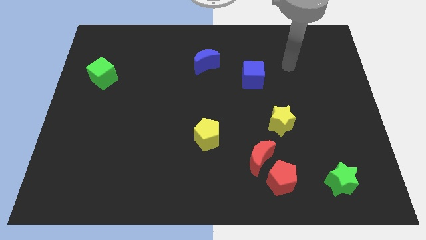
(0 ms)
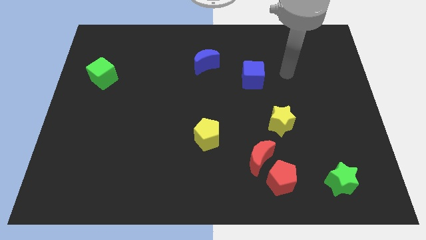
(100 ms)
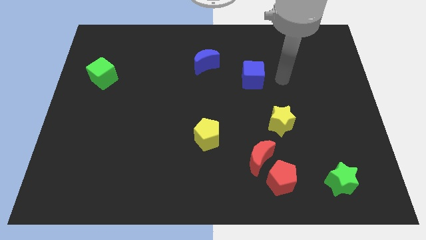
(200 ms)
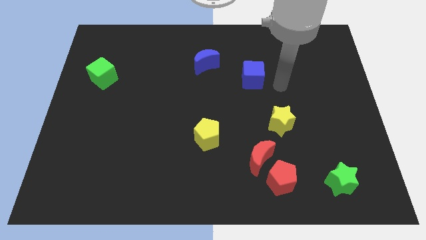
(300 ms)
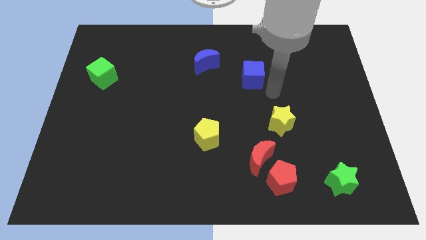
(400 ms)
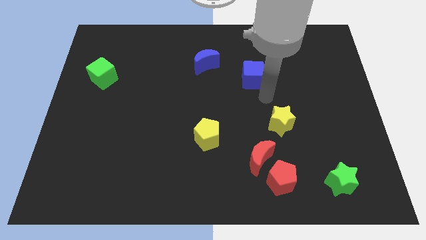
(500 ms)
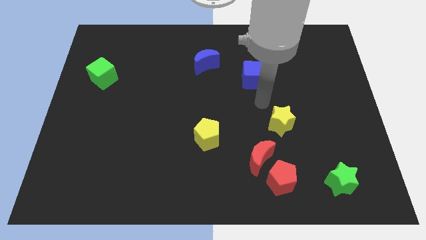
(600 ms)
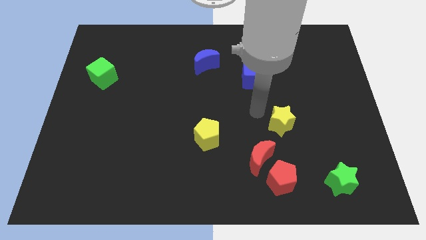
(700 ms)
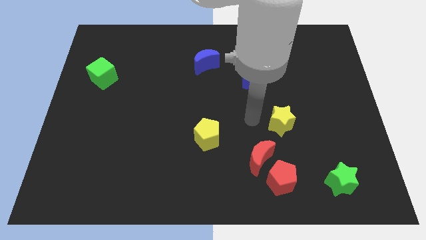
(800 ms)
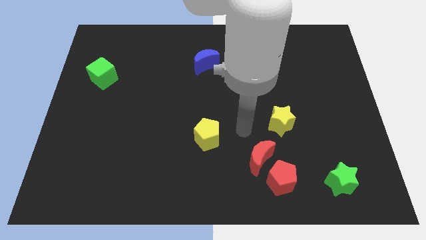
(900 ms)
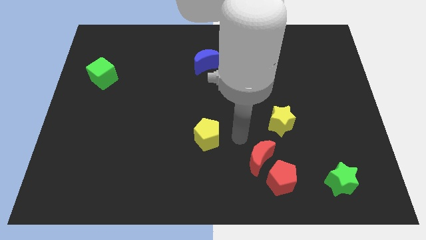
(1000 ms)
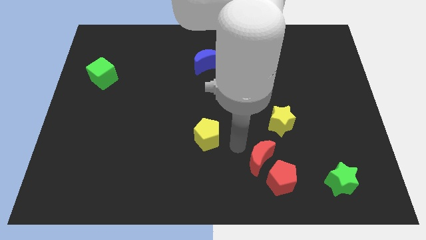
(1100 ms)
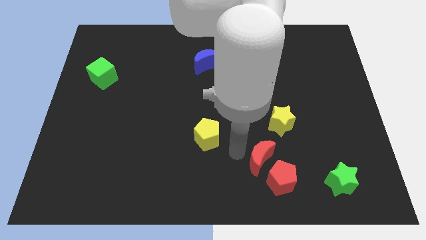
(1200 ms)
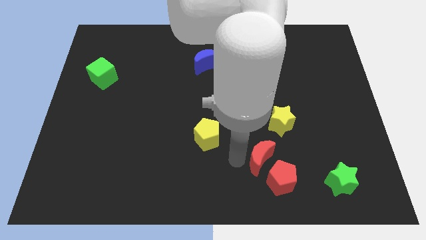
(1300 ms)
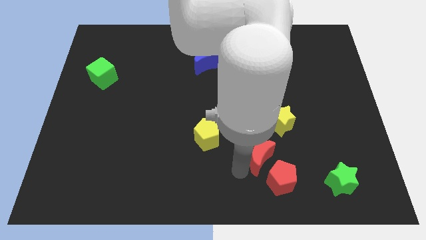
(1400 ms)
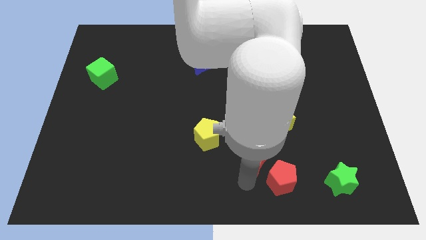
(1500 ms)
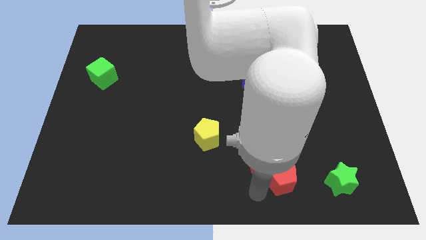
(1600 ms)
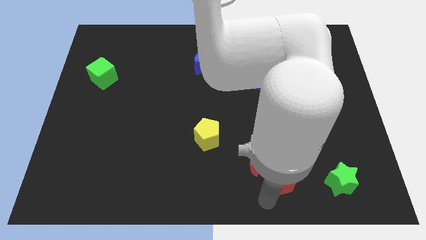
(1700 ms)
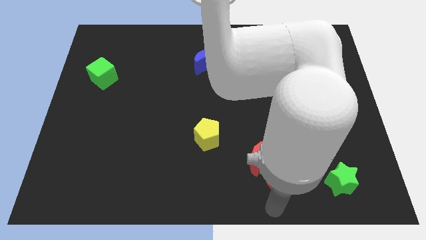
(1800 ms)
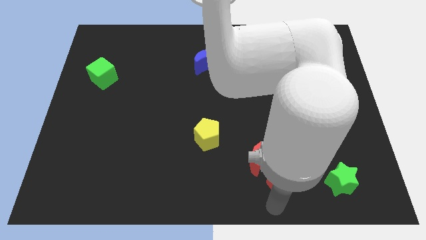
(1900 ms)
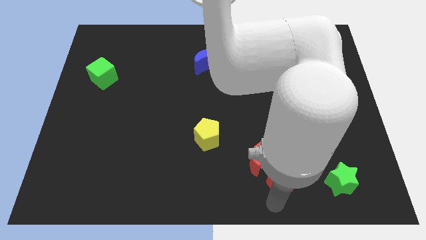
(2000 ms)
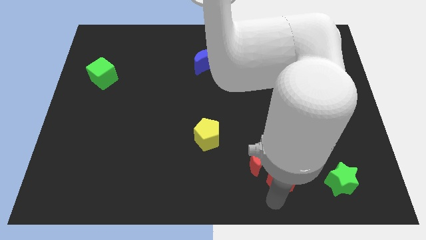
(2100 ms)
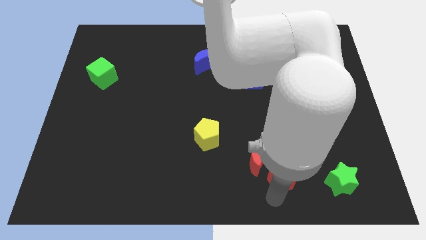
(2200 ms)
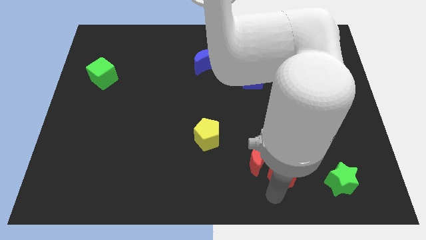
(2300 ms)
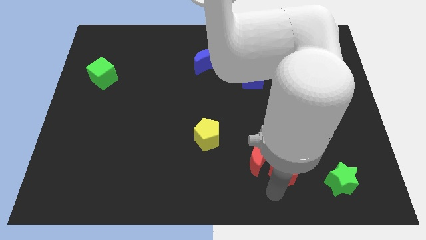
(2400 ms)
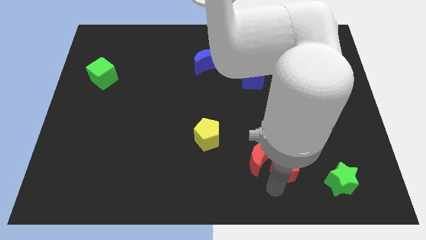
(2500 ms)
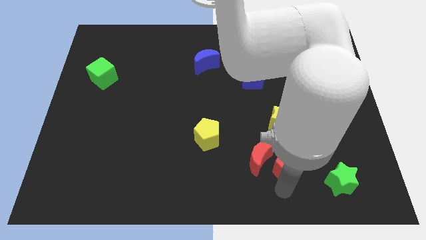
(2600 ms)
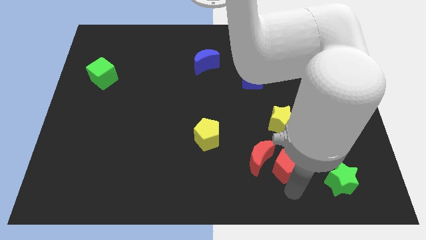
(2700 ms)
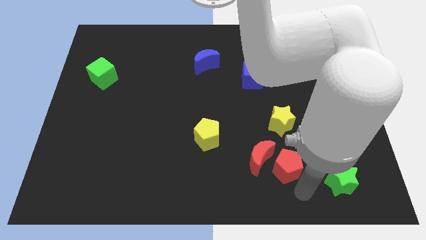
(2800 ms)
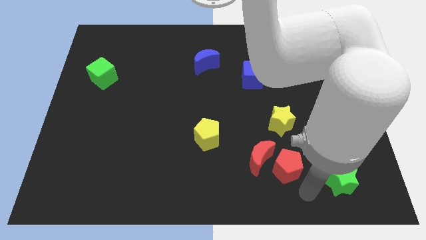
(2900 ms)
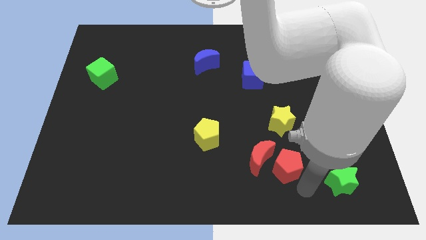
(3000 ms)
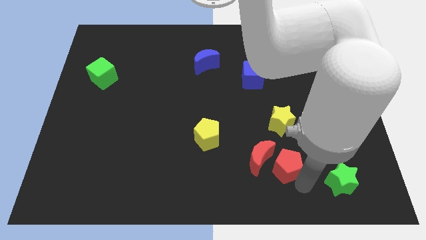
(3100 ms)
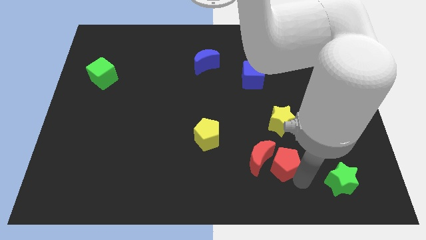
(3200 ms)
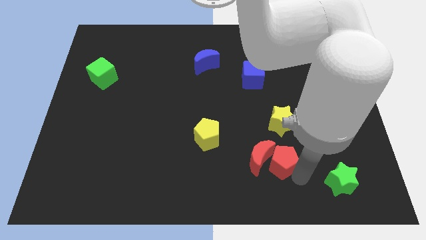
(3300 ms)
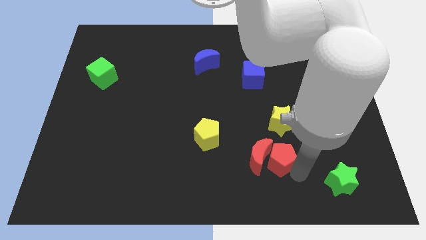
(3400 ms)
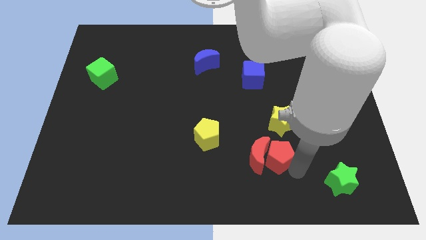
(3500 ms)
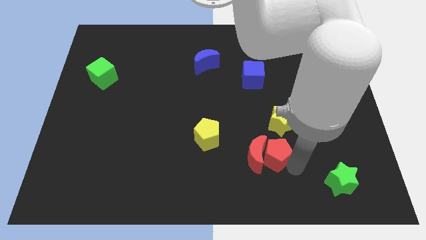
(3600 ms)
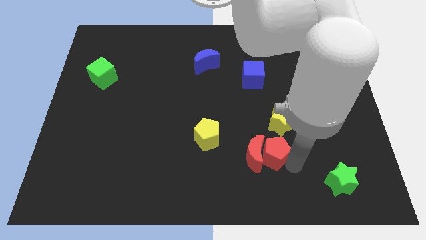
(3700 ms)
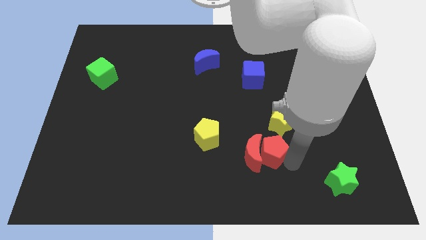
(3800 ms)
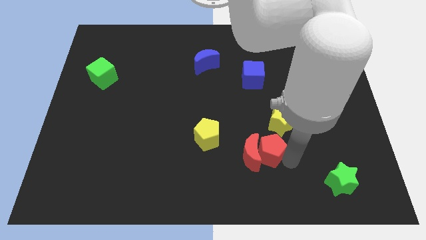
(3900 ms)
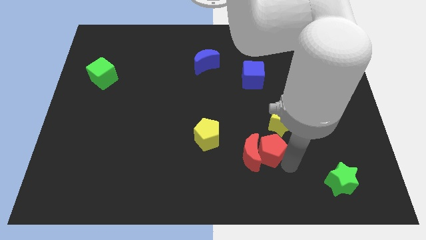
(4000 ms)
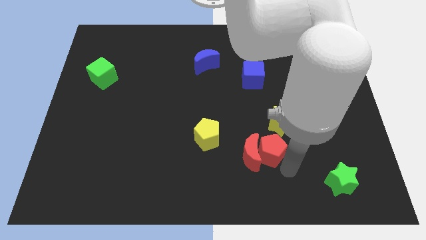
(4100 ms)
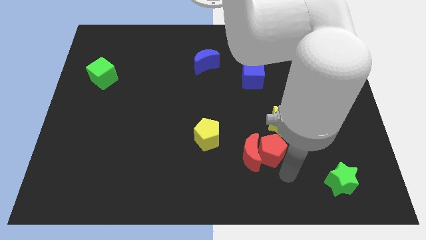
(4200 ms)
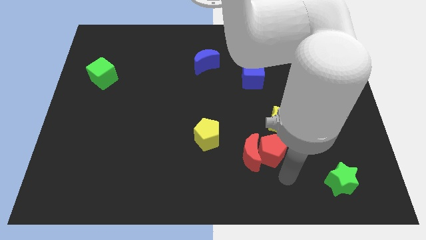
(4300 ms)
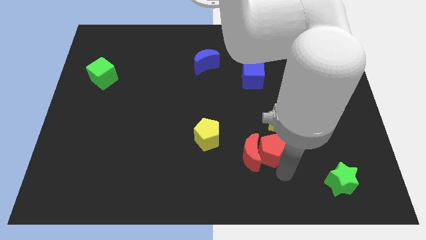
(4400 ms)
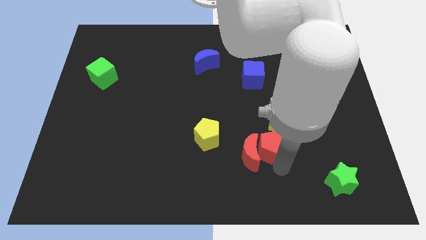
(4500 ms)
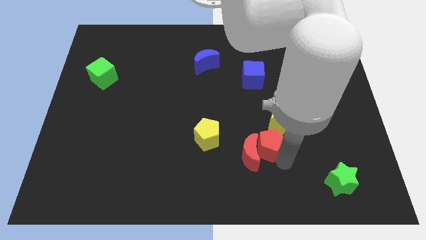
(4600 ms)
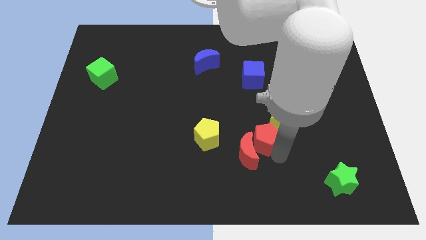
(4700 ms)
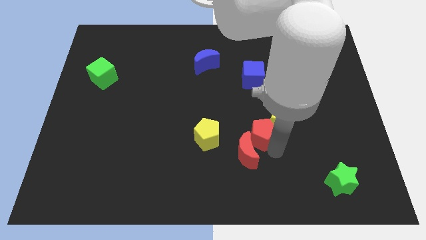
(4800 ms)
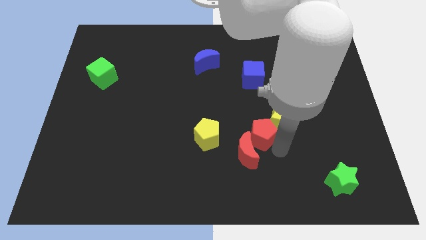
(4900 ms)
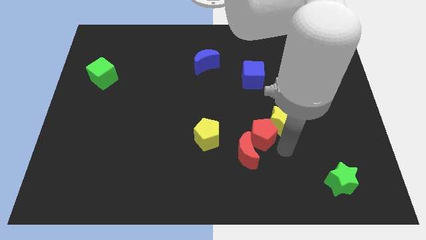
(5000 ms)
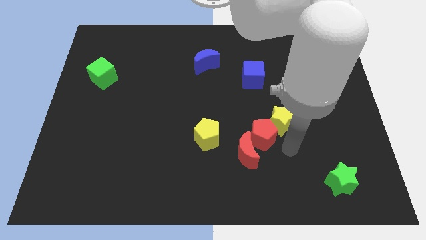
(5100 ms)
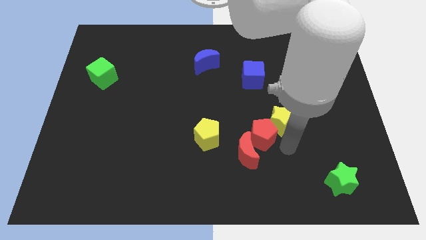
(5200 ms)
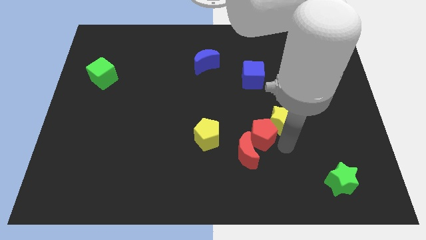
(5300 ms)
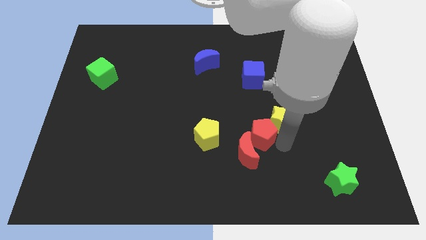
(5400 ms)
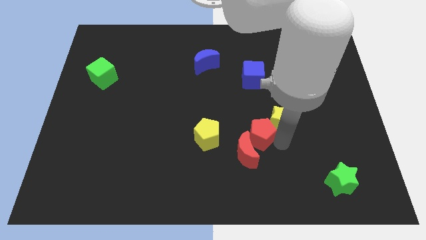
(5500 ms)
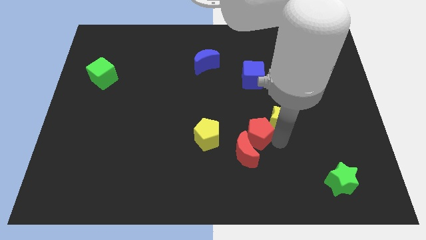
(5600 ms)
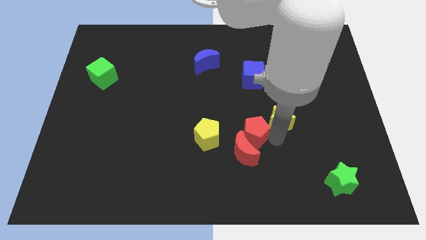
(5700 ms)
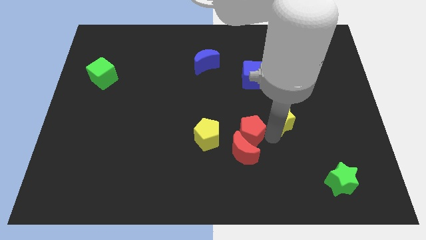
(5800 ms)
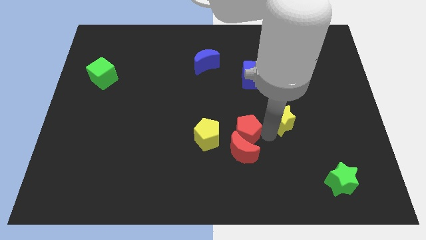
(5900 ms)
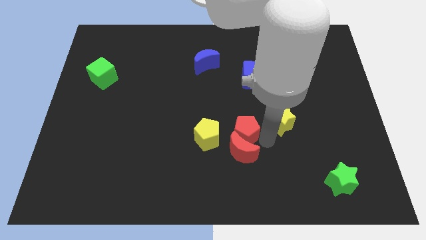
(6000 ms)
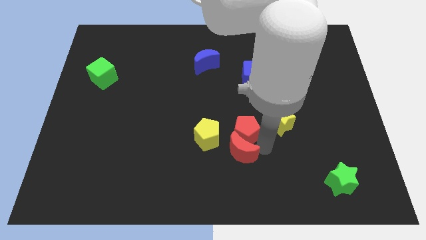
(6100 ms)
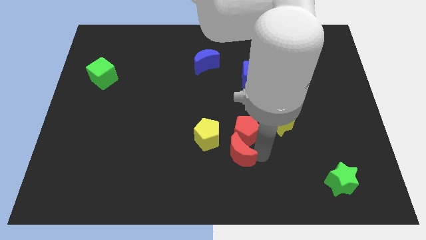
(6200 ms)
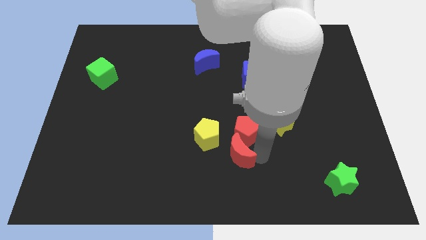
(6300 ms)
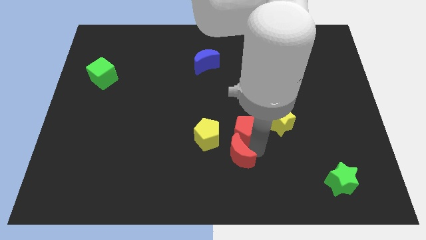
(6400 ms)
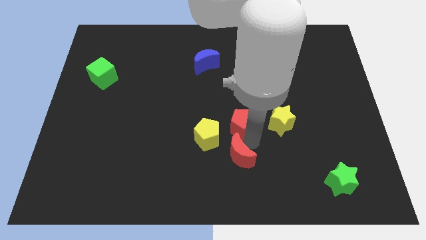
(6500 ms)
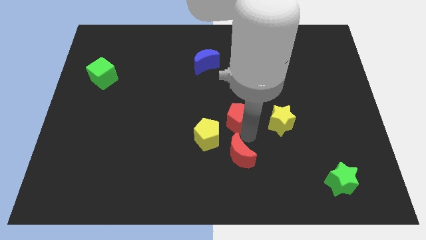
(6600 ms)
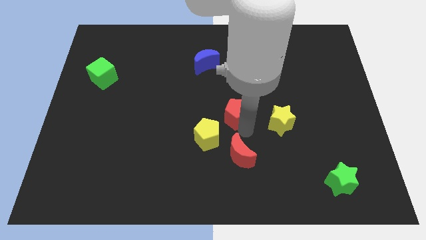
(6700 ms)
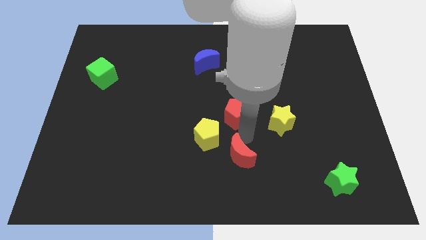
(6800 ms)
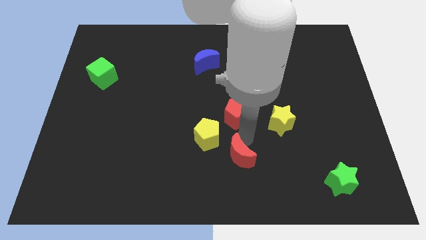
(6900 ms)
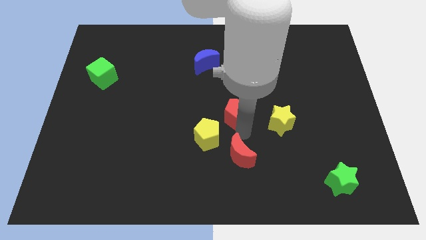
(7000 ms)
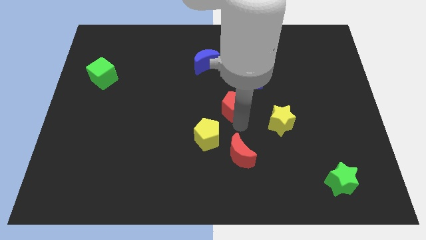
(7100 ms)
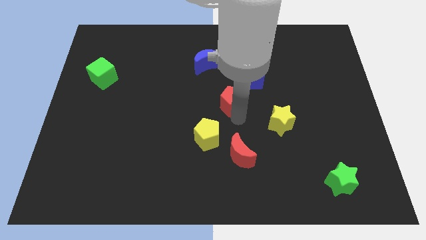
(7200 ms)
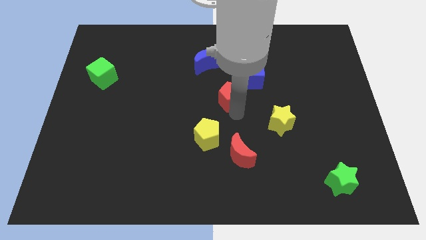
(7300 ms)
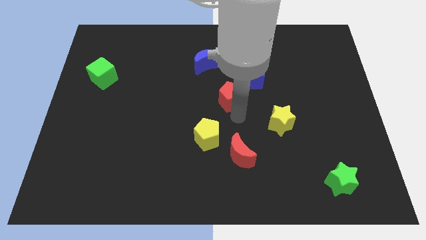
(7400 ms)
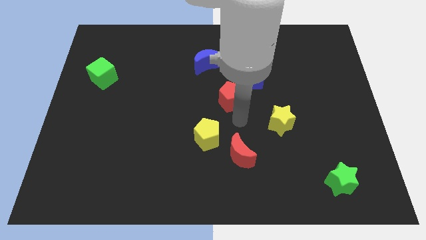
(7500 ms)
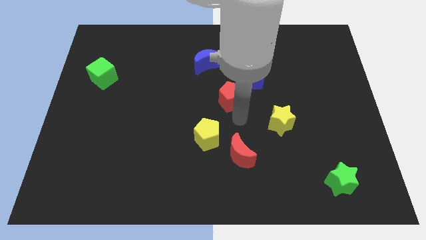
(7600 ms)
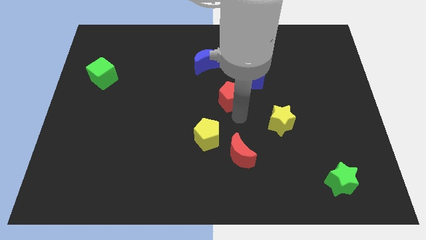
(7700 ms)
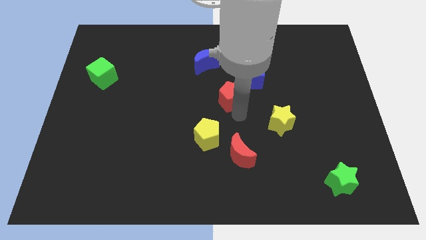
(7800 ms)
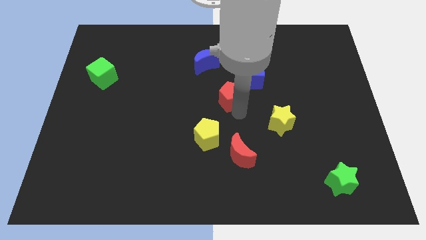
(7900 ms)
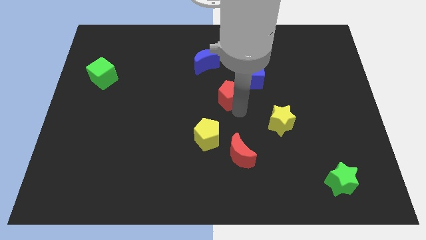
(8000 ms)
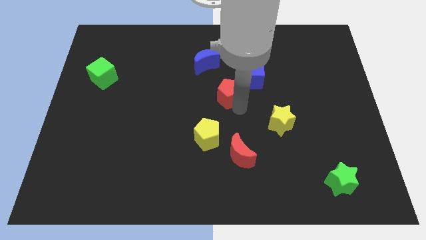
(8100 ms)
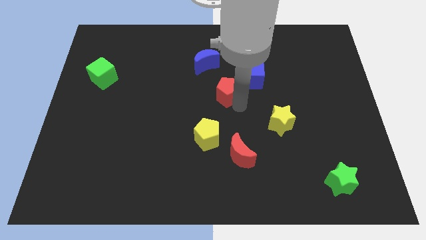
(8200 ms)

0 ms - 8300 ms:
put the red pentagon diagonally down and to the right of the blue moon
